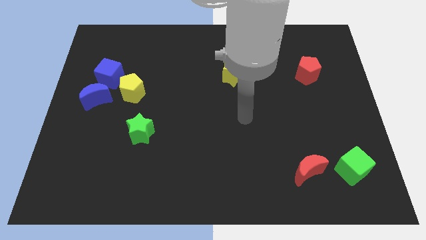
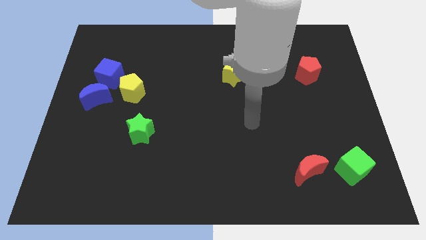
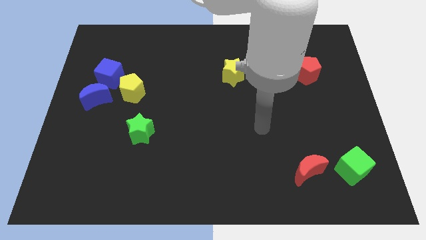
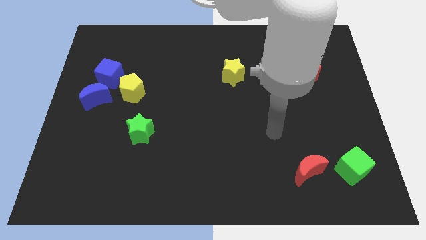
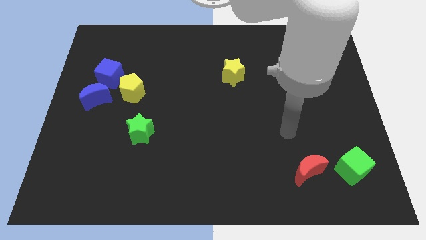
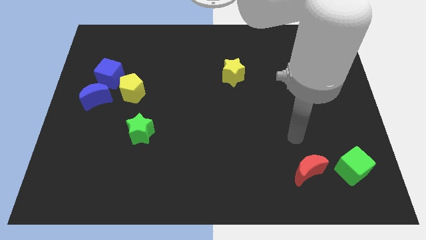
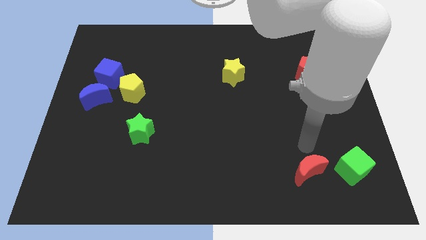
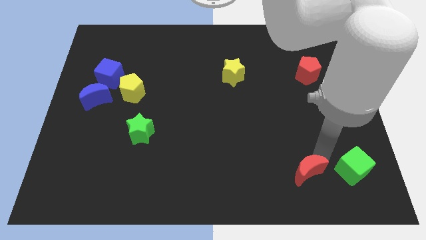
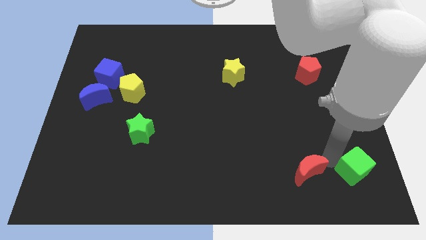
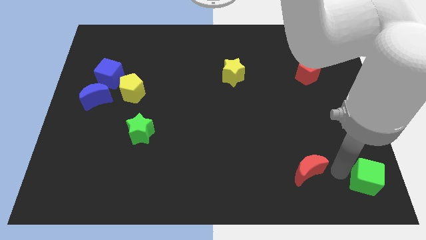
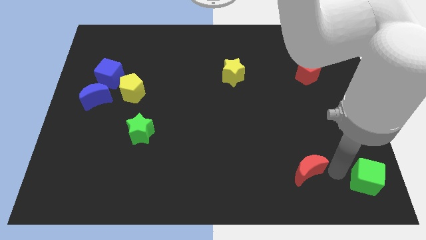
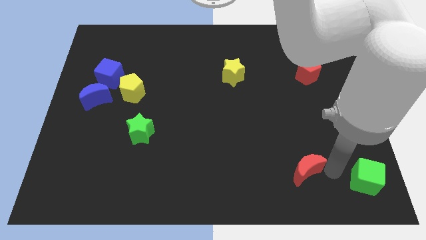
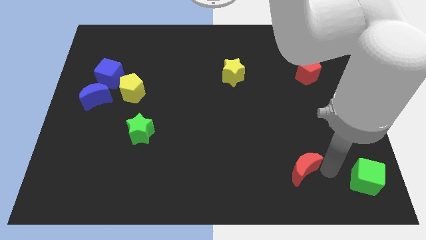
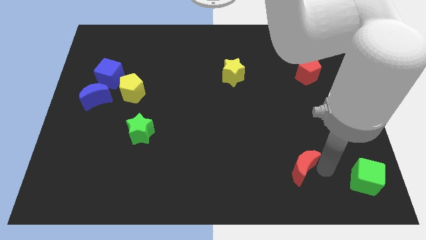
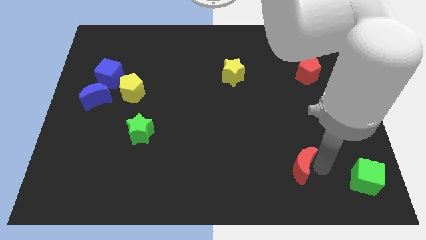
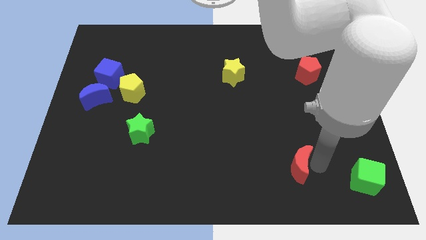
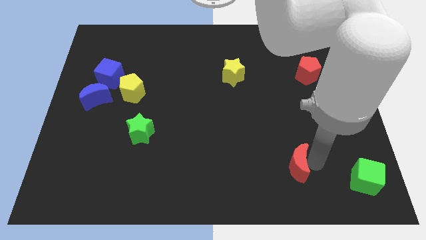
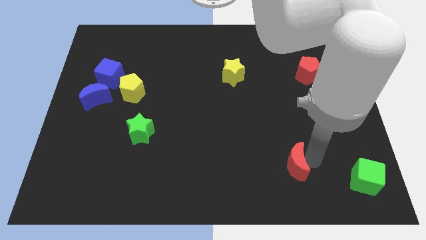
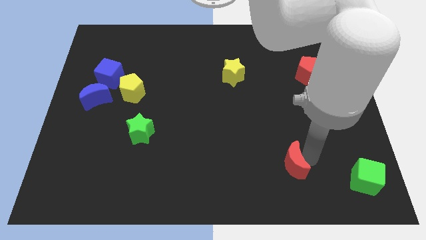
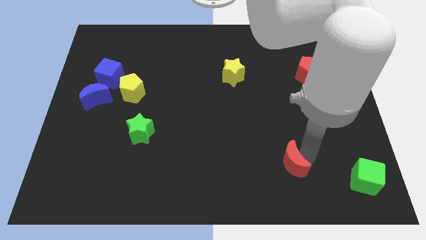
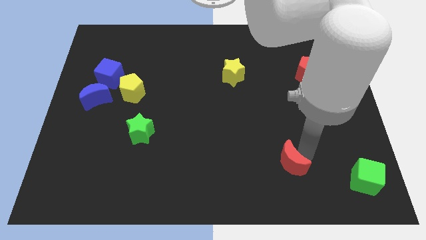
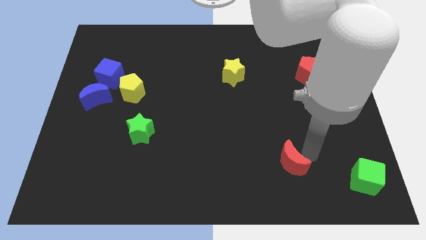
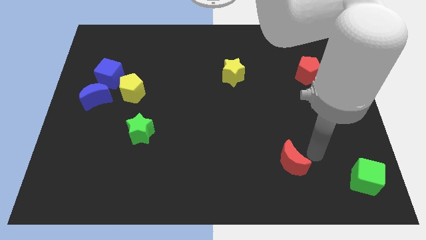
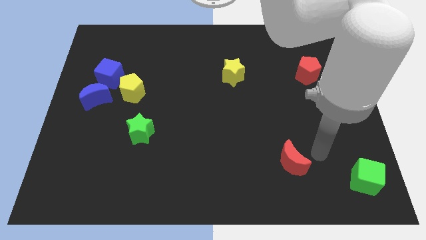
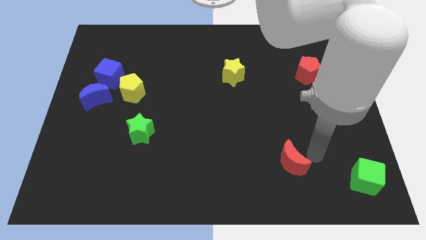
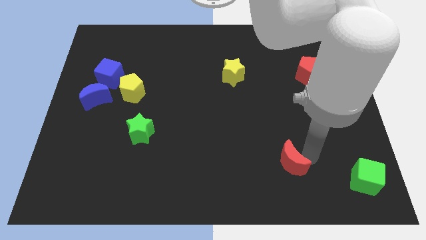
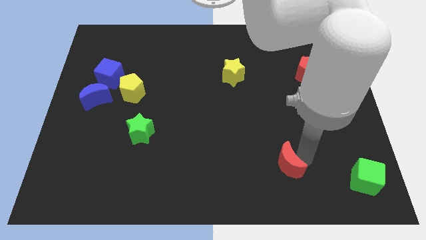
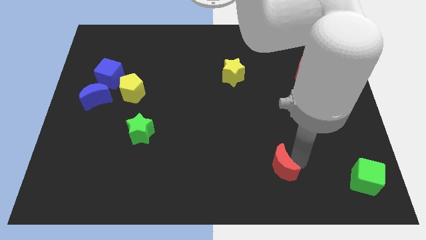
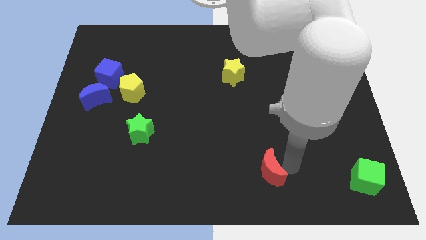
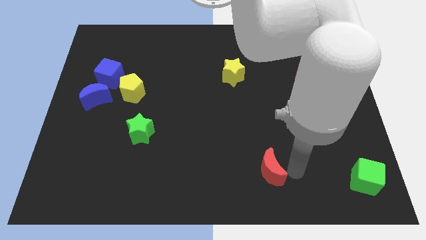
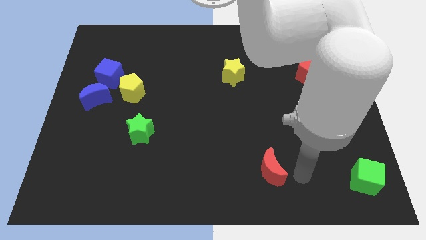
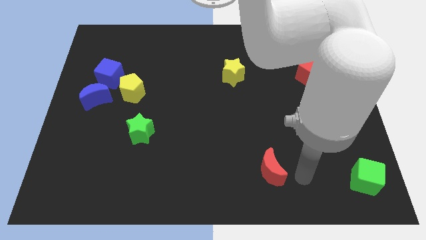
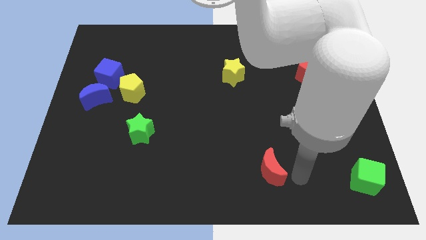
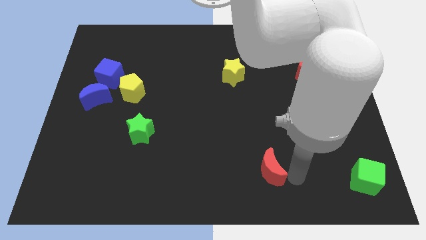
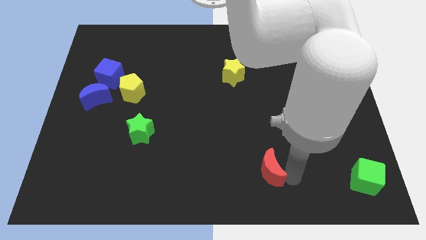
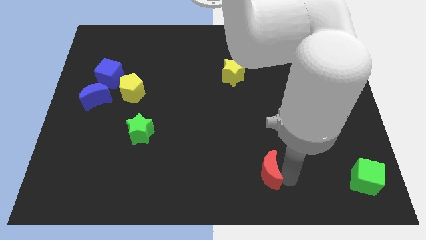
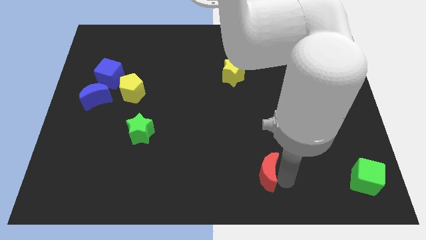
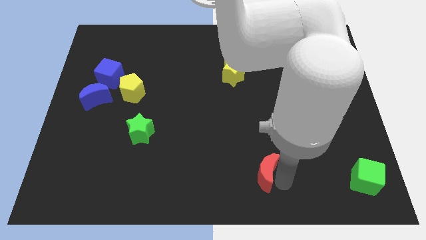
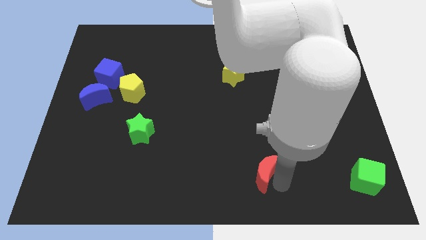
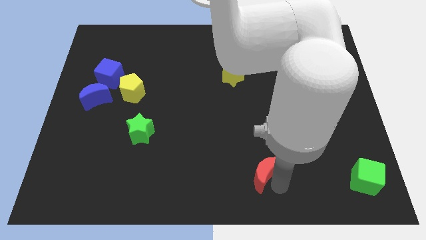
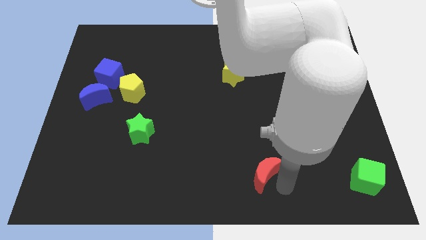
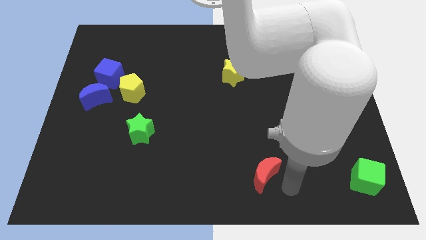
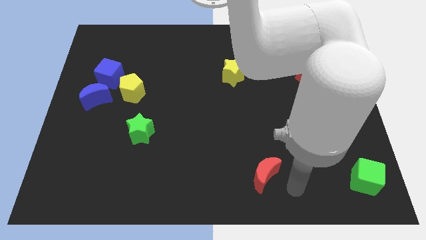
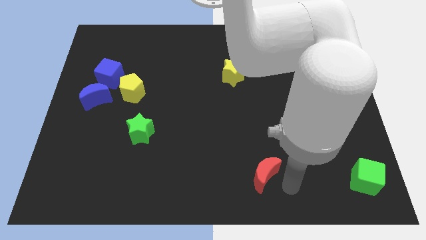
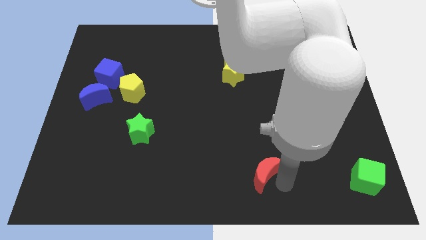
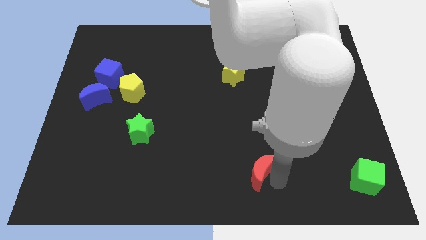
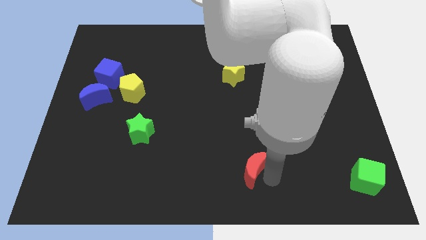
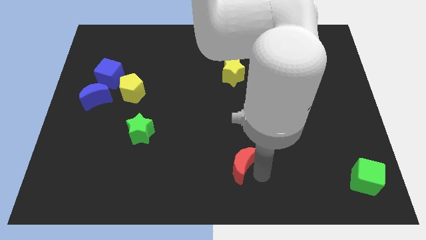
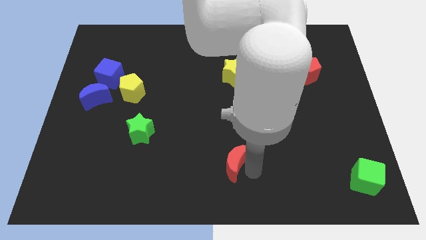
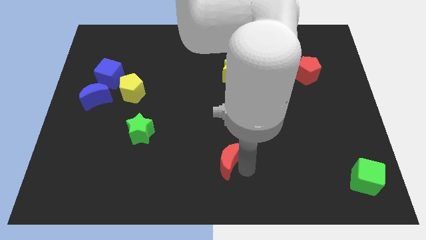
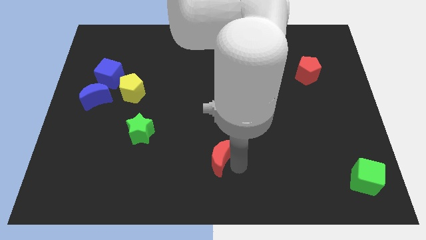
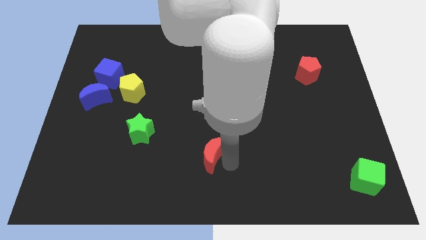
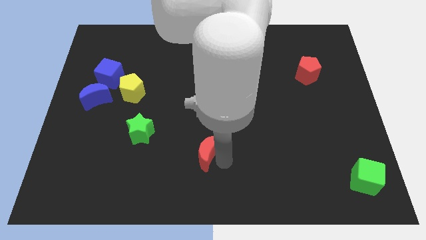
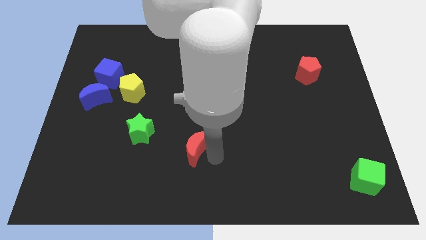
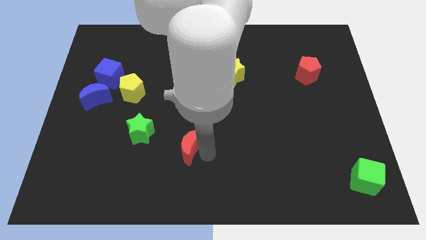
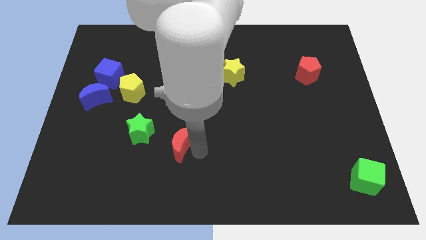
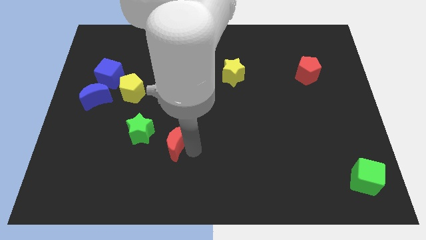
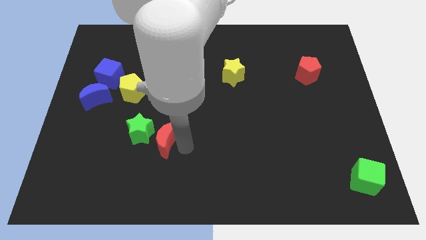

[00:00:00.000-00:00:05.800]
push the red moon close to the green star

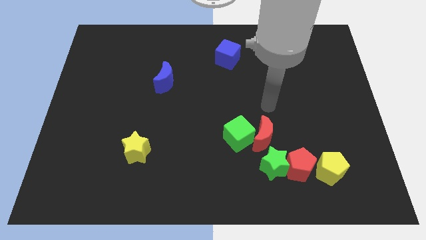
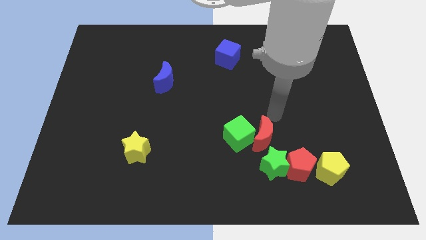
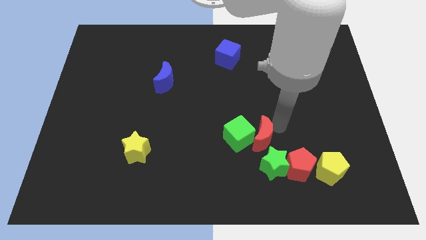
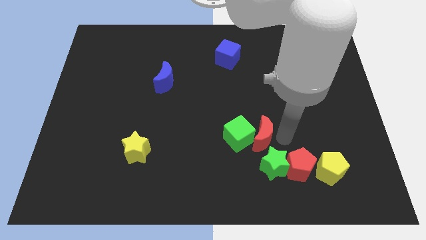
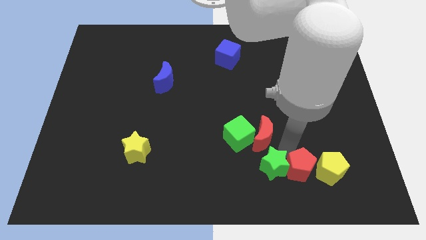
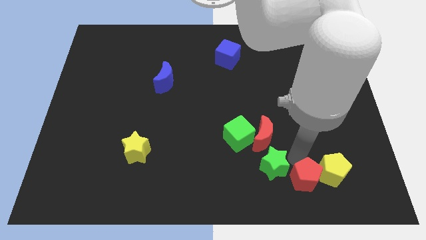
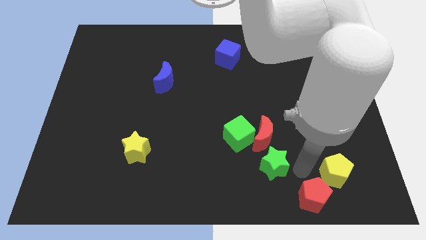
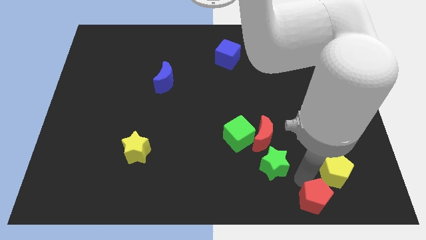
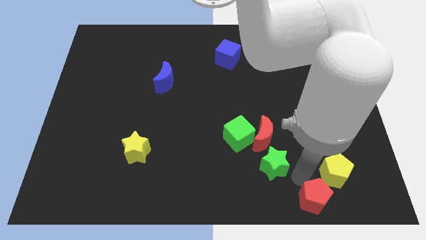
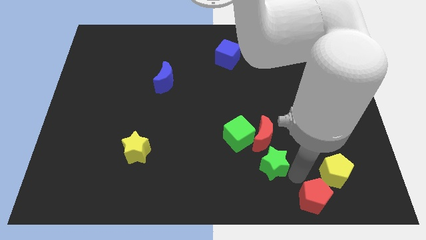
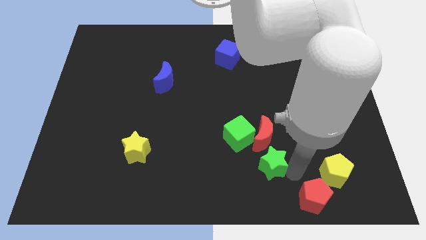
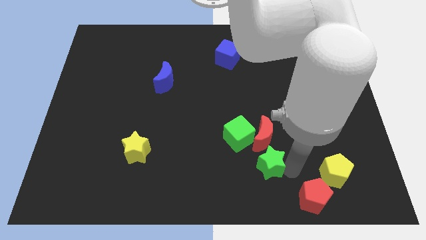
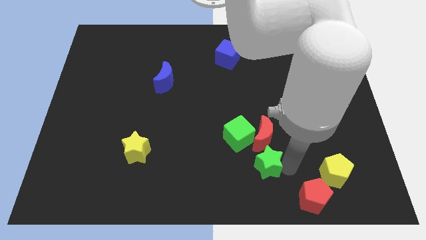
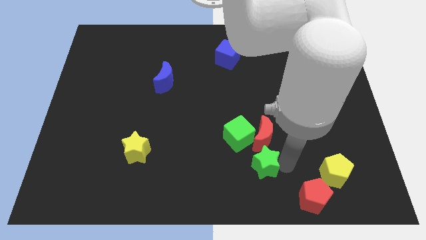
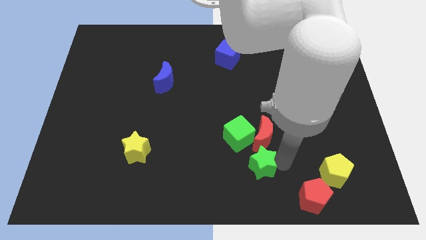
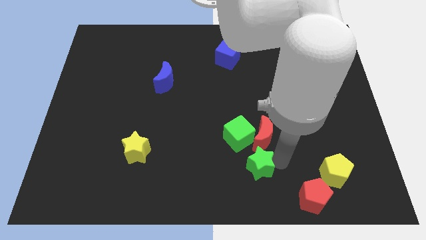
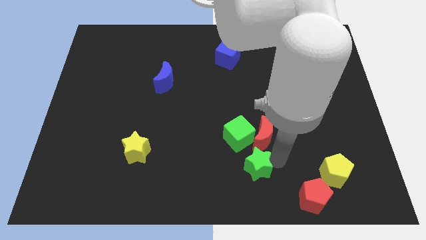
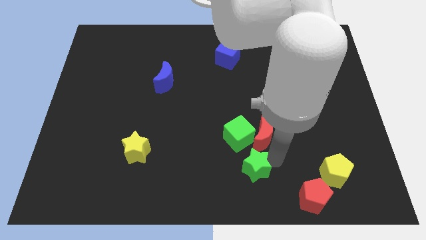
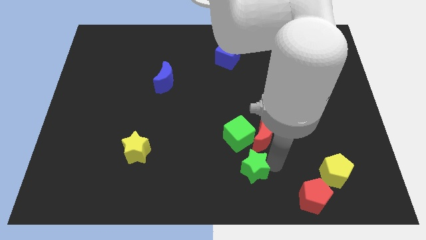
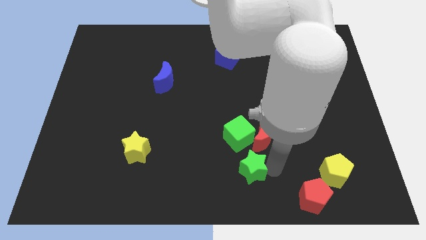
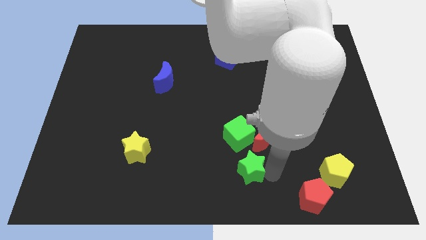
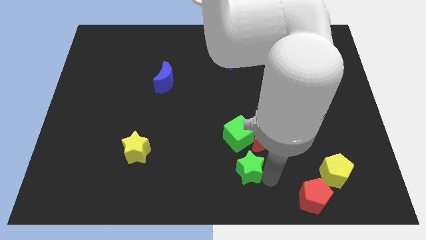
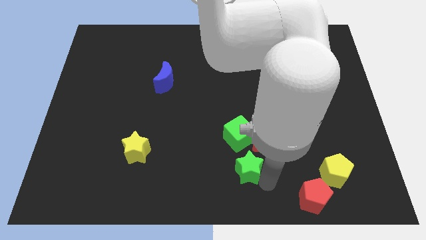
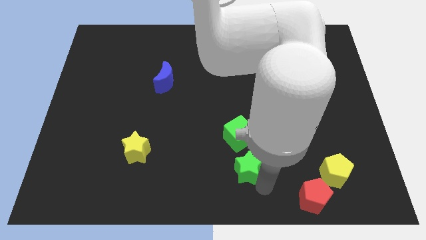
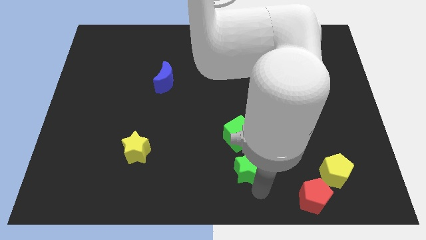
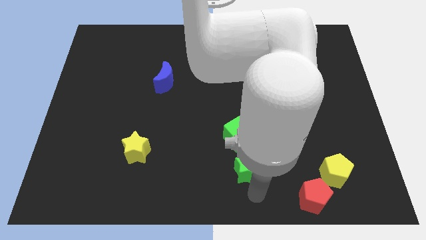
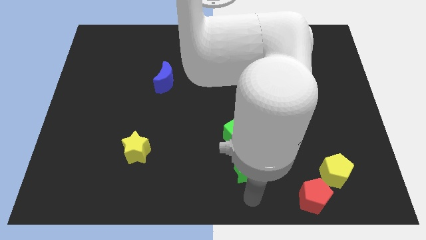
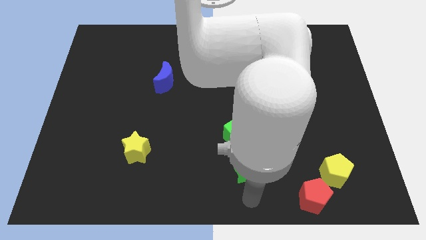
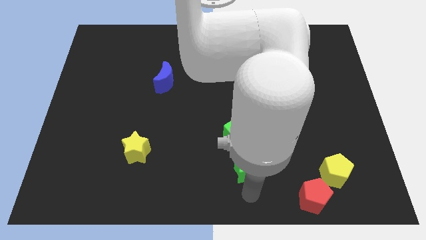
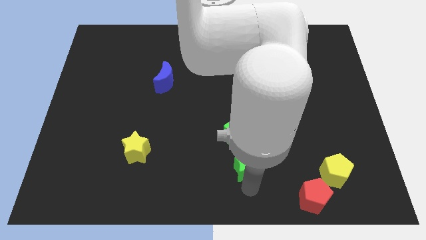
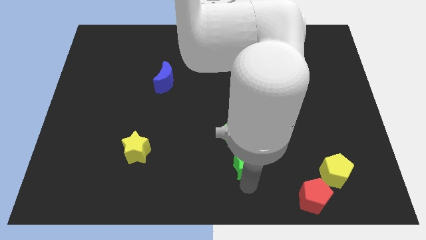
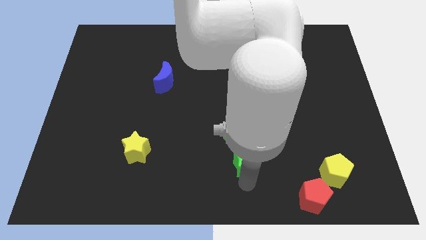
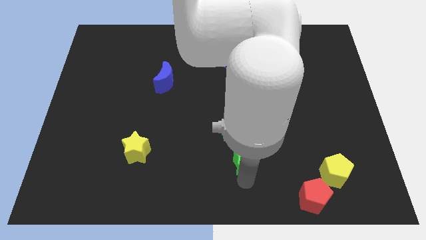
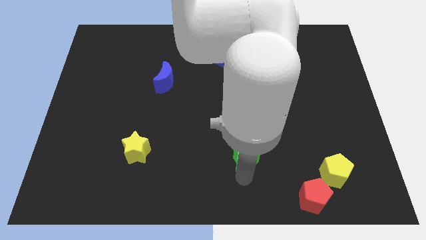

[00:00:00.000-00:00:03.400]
slide the green star towards the green cube
